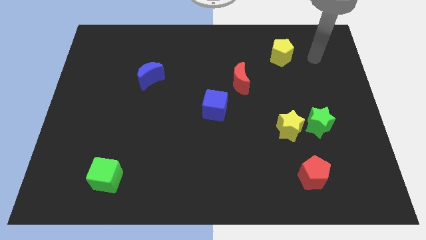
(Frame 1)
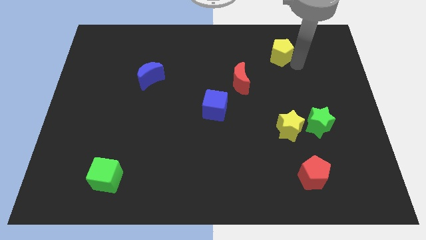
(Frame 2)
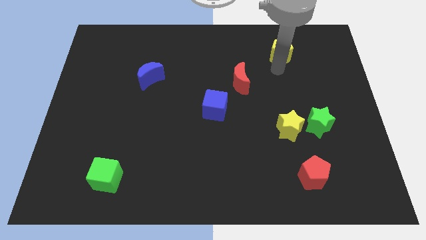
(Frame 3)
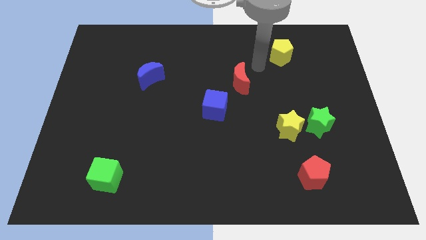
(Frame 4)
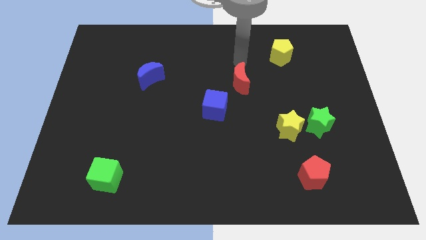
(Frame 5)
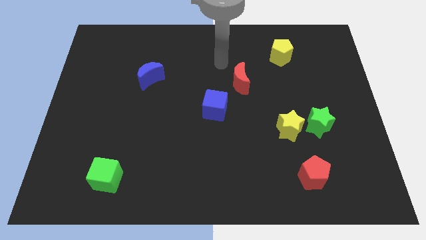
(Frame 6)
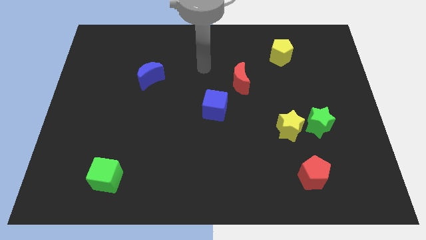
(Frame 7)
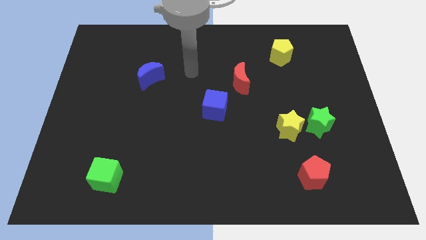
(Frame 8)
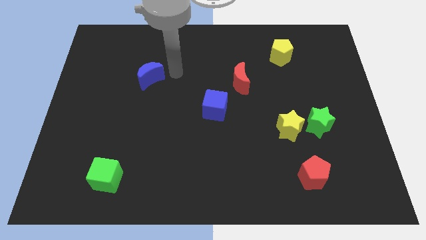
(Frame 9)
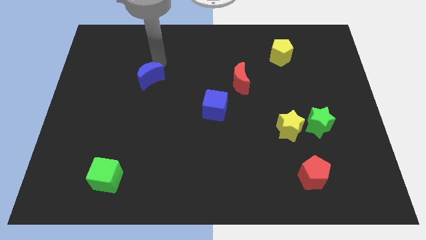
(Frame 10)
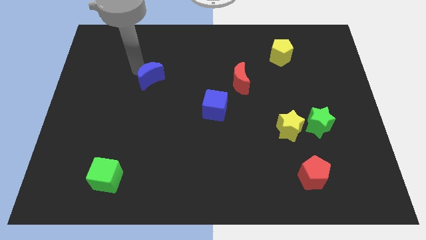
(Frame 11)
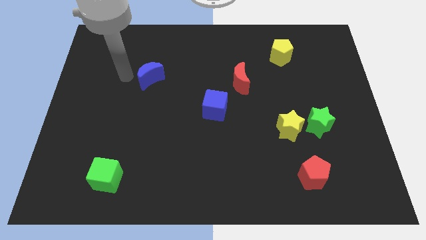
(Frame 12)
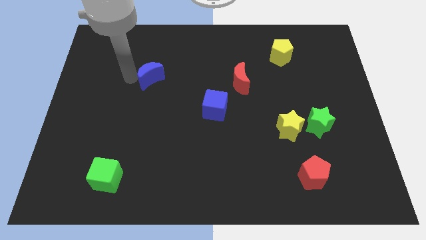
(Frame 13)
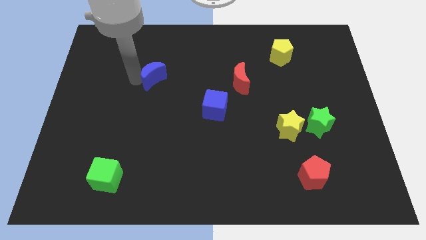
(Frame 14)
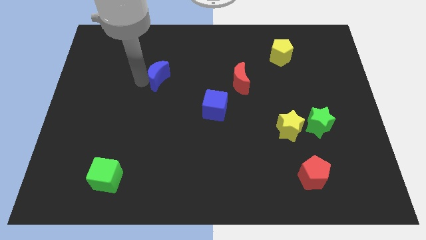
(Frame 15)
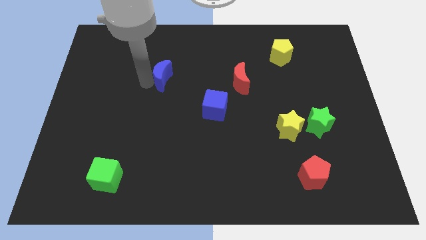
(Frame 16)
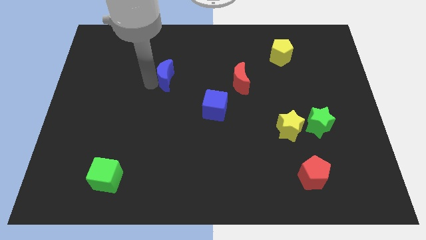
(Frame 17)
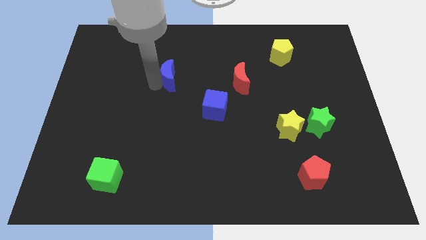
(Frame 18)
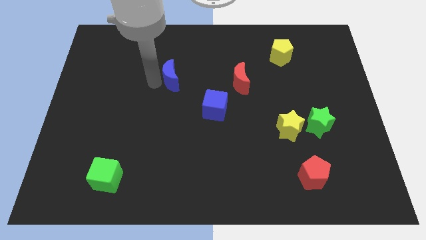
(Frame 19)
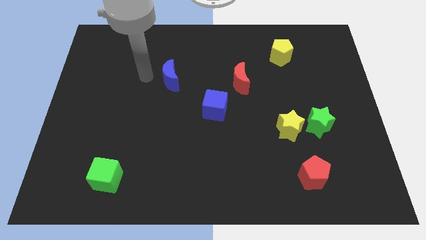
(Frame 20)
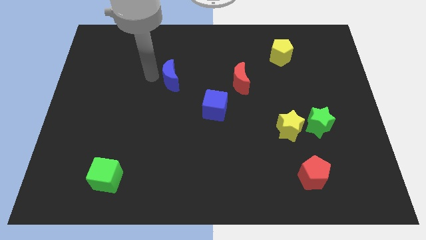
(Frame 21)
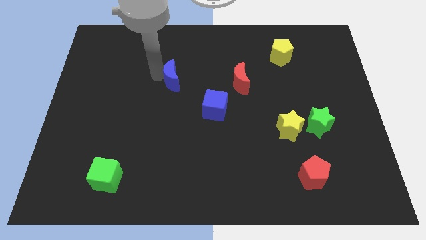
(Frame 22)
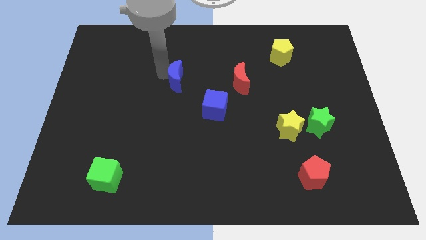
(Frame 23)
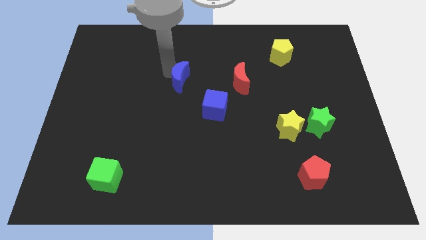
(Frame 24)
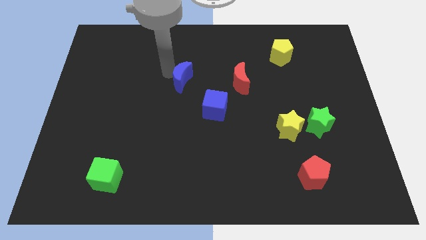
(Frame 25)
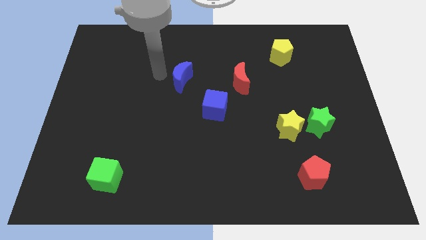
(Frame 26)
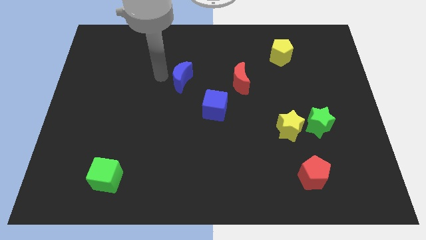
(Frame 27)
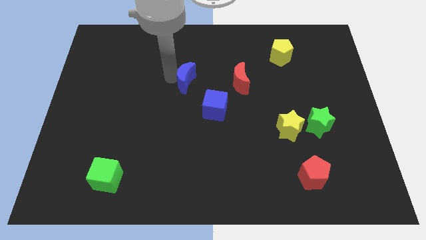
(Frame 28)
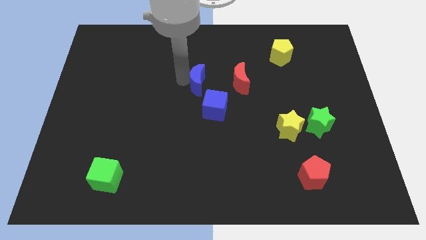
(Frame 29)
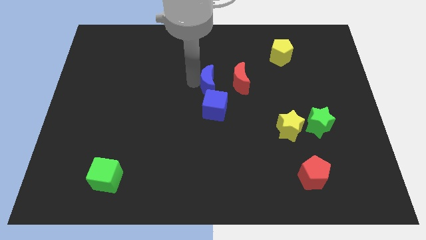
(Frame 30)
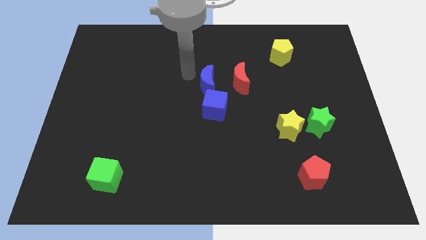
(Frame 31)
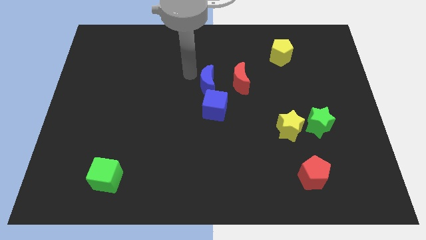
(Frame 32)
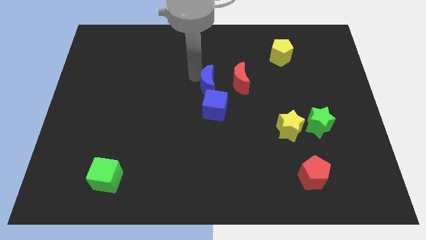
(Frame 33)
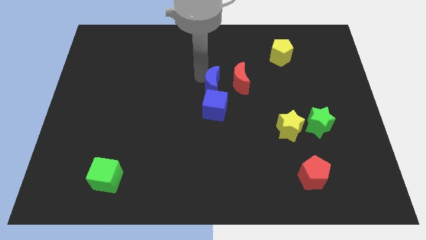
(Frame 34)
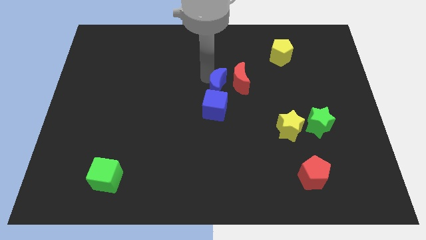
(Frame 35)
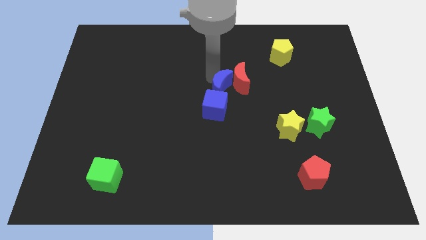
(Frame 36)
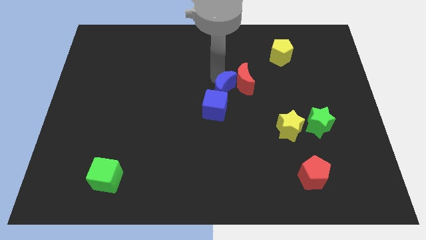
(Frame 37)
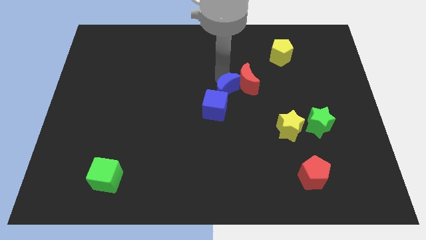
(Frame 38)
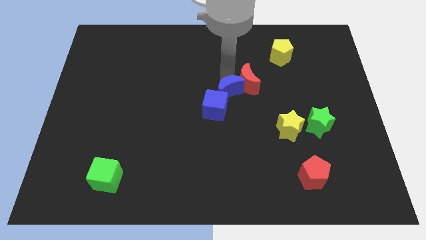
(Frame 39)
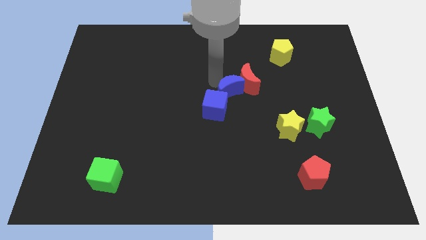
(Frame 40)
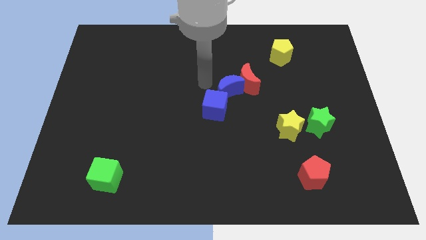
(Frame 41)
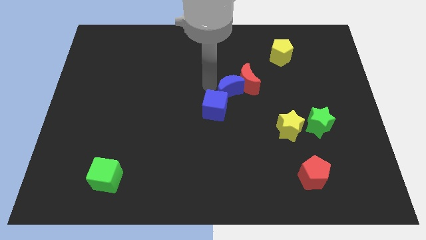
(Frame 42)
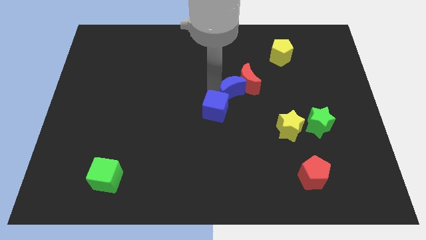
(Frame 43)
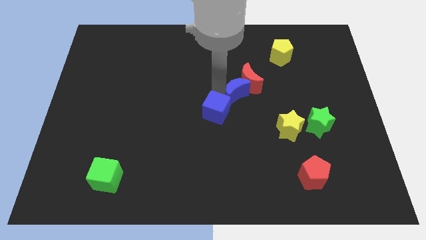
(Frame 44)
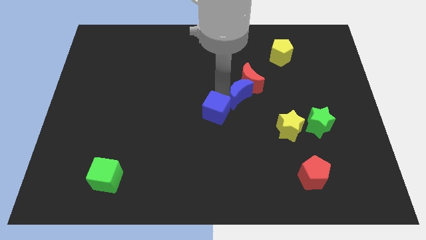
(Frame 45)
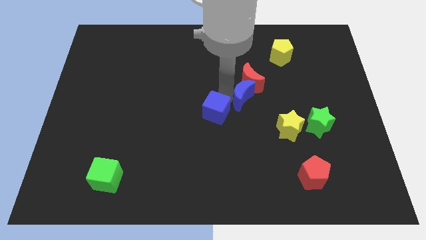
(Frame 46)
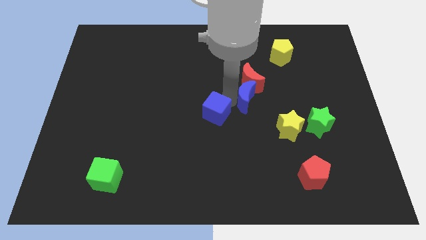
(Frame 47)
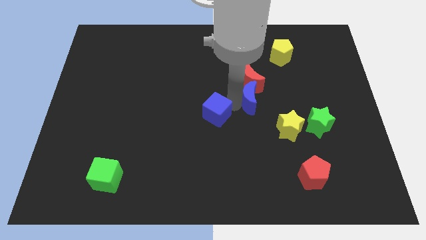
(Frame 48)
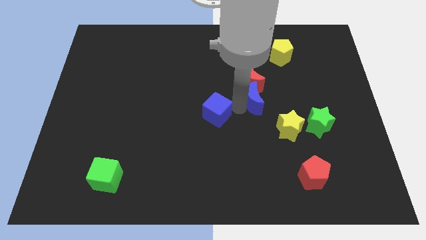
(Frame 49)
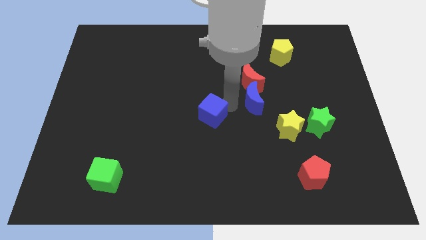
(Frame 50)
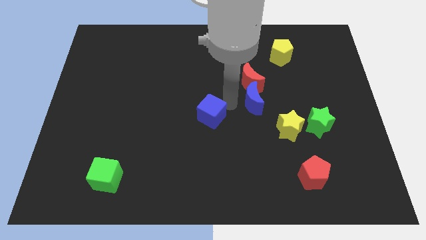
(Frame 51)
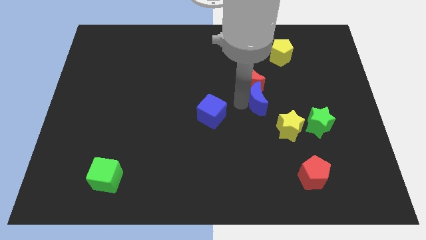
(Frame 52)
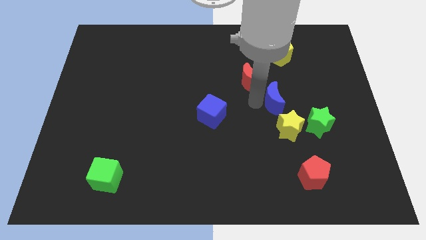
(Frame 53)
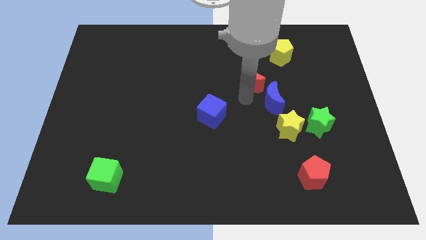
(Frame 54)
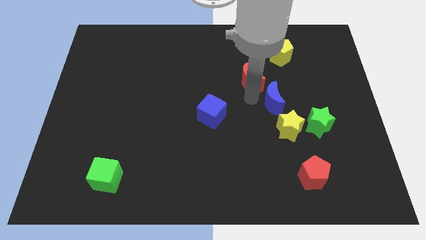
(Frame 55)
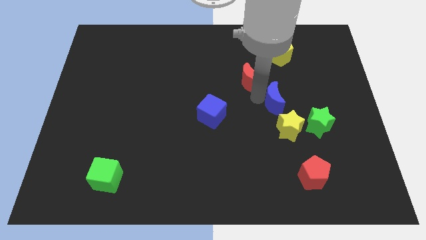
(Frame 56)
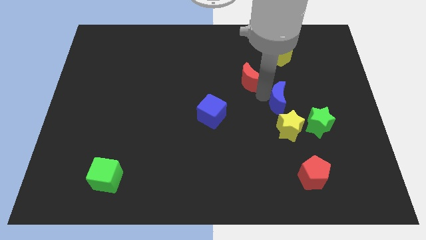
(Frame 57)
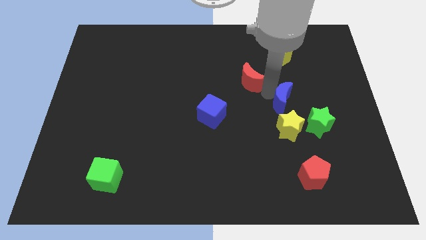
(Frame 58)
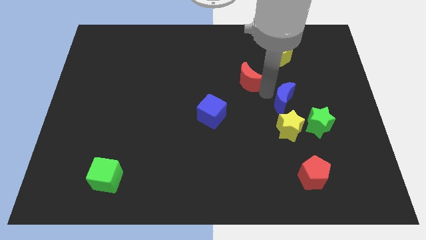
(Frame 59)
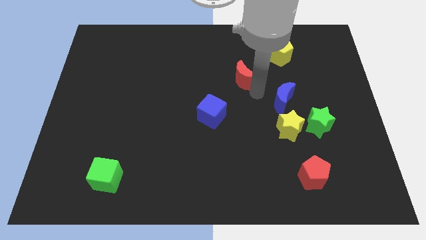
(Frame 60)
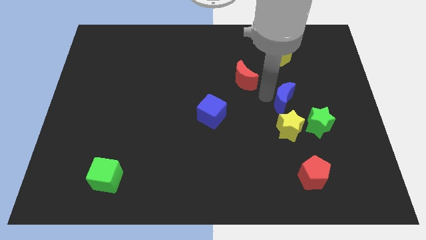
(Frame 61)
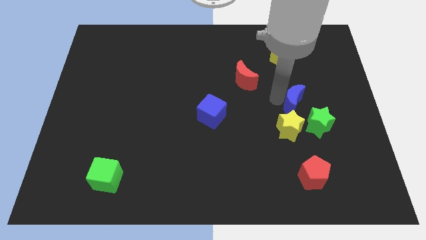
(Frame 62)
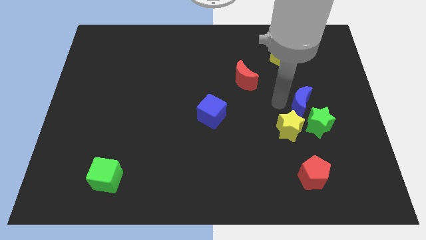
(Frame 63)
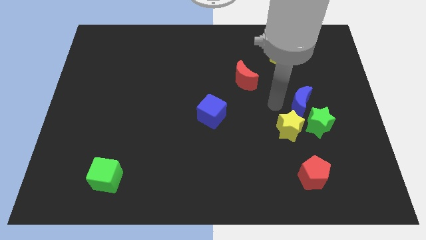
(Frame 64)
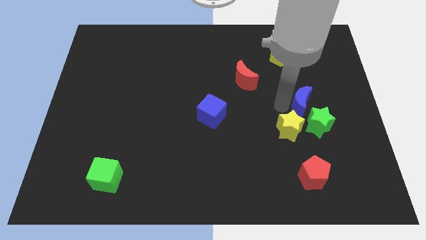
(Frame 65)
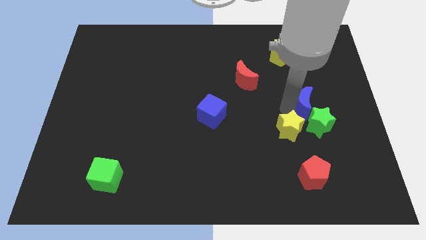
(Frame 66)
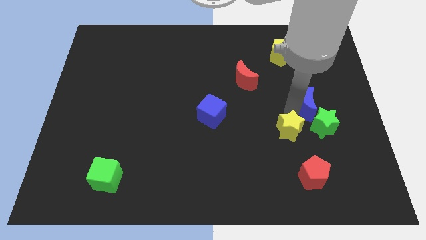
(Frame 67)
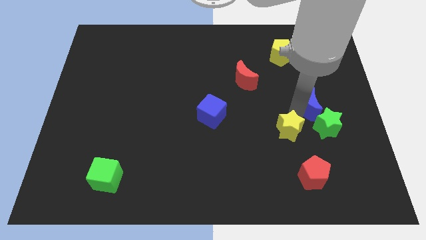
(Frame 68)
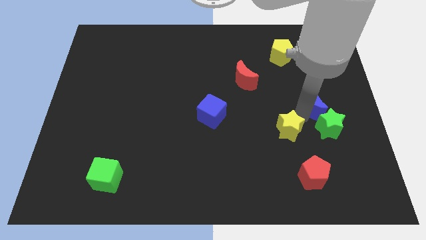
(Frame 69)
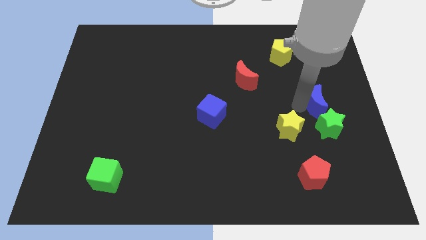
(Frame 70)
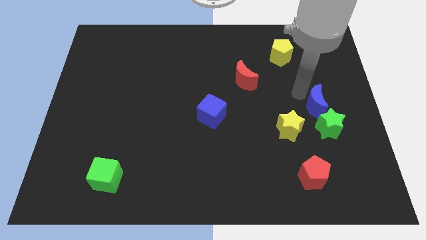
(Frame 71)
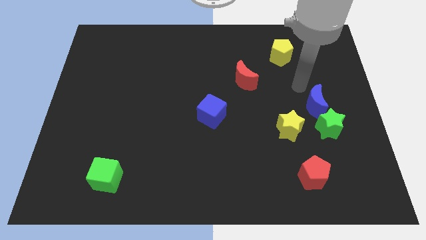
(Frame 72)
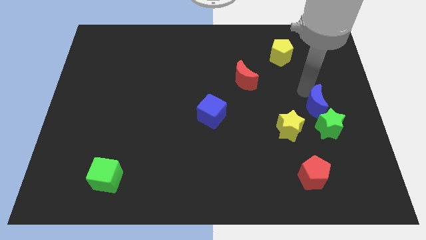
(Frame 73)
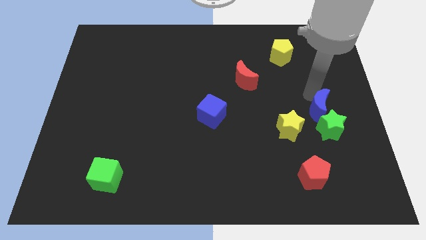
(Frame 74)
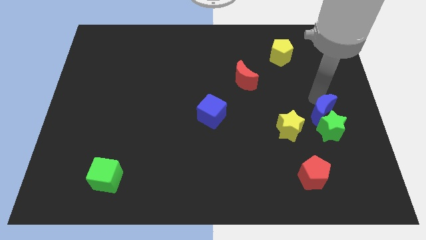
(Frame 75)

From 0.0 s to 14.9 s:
put the blue moon right of the yellow star

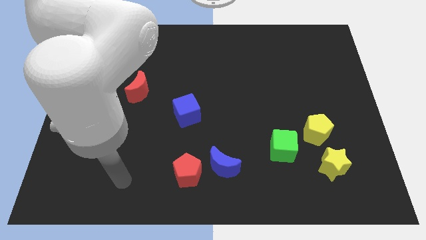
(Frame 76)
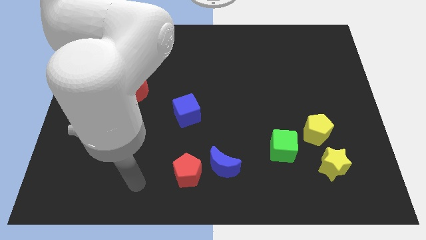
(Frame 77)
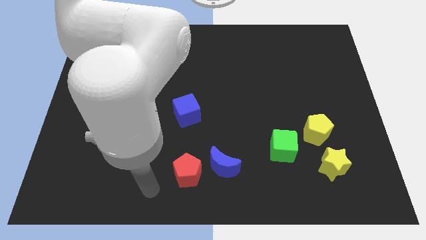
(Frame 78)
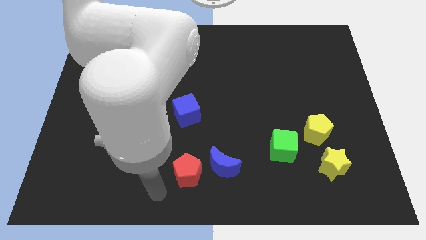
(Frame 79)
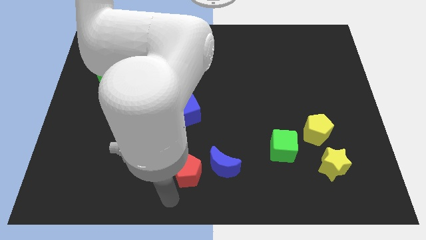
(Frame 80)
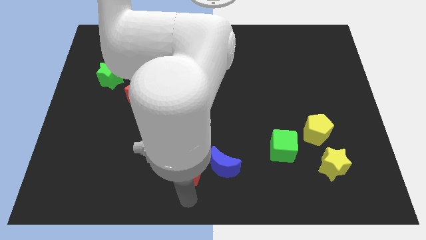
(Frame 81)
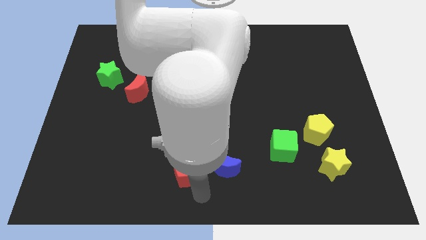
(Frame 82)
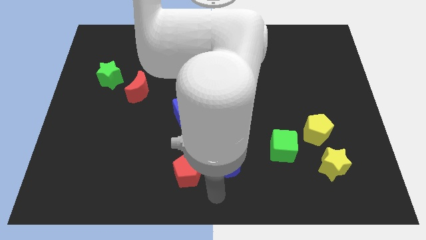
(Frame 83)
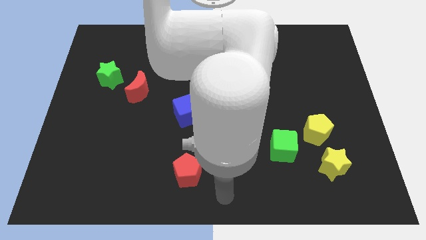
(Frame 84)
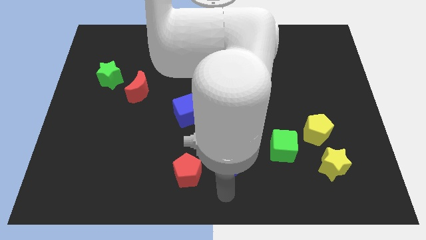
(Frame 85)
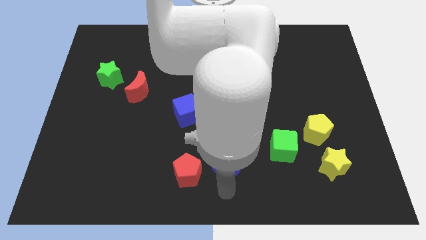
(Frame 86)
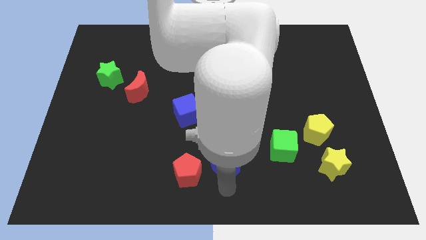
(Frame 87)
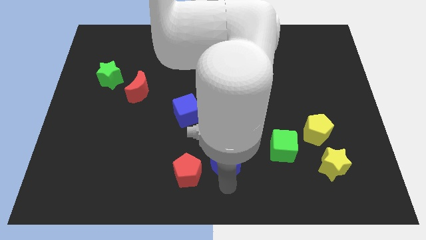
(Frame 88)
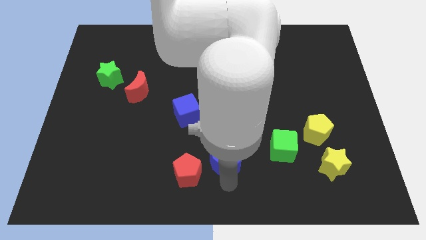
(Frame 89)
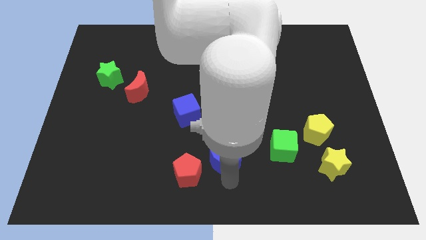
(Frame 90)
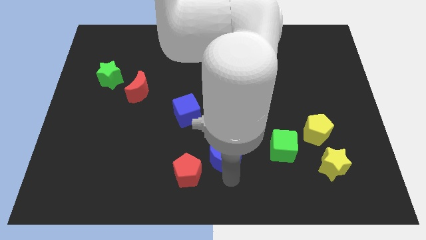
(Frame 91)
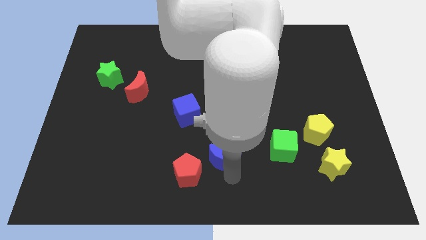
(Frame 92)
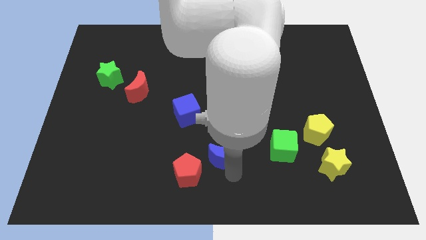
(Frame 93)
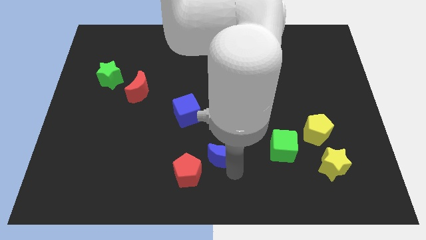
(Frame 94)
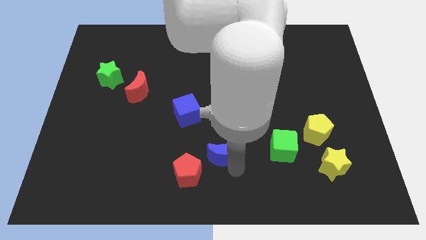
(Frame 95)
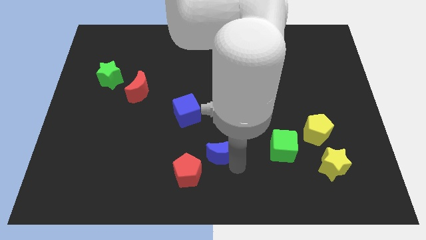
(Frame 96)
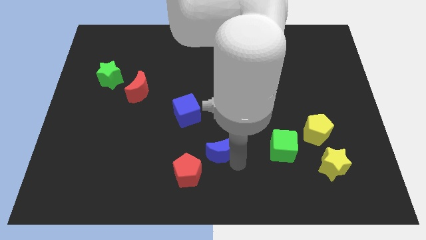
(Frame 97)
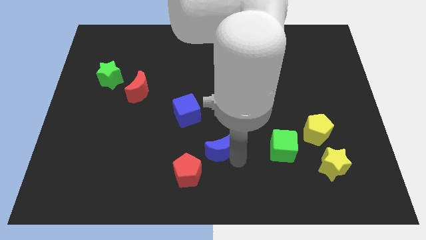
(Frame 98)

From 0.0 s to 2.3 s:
put the blue moon to the bottom right side of the blue cube
